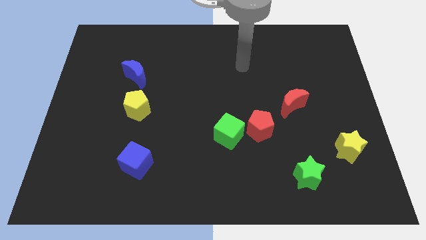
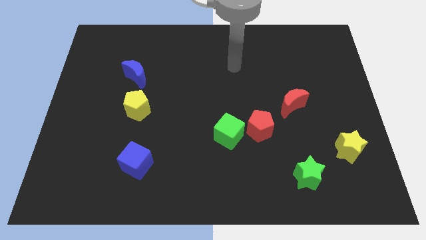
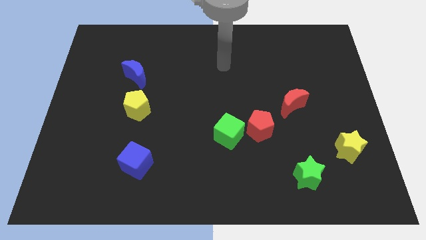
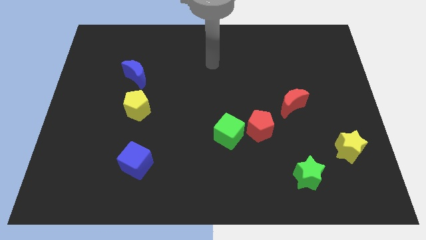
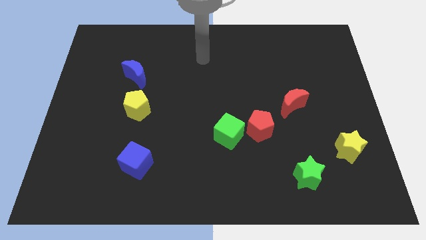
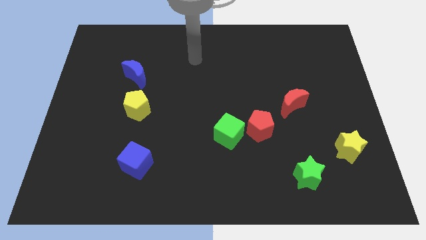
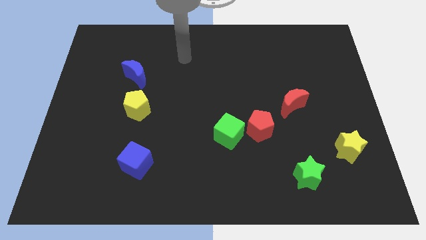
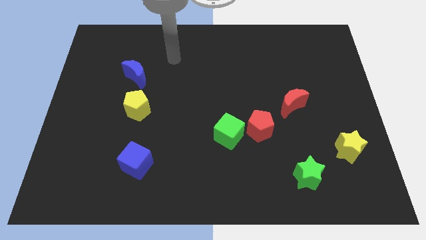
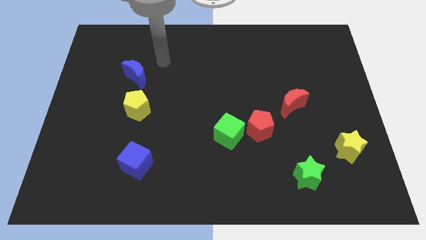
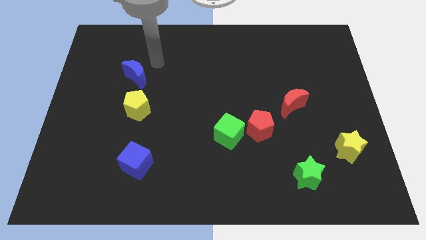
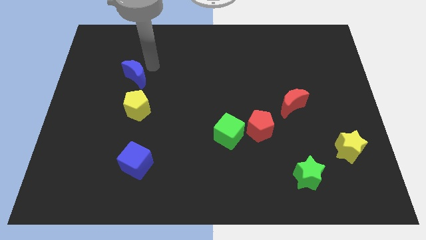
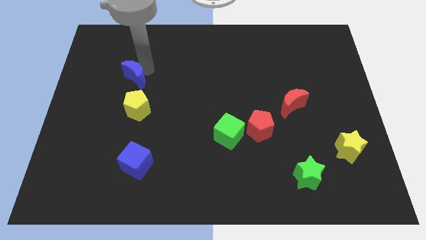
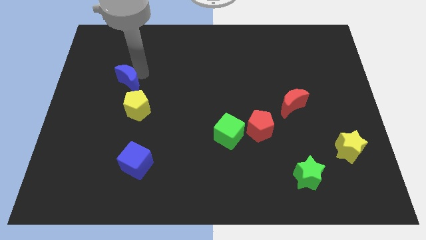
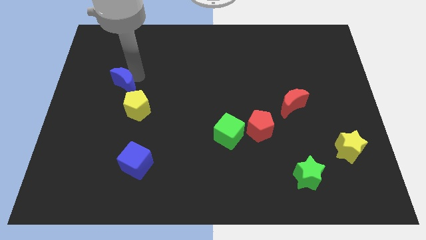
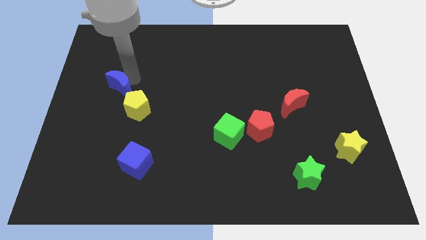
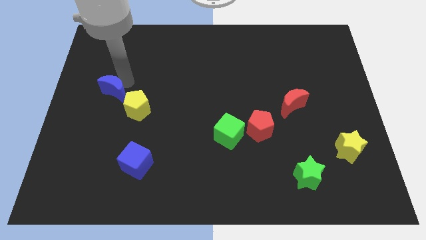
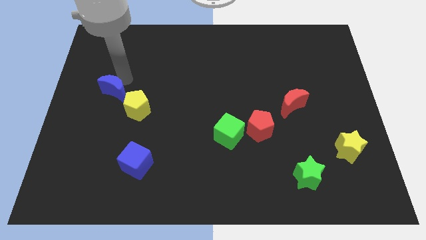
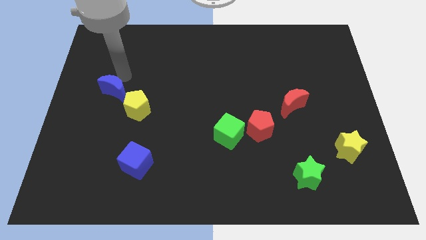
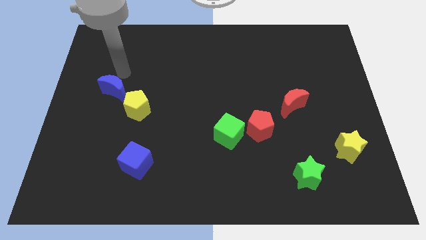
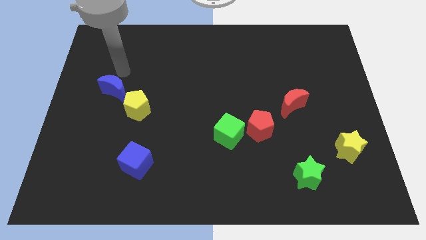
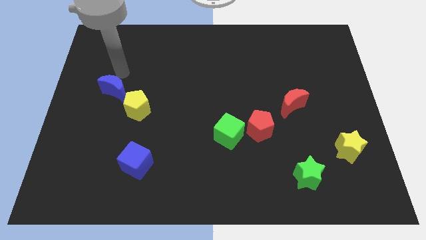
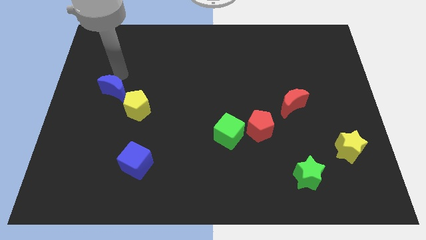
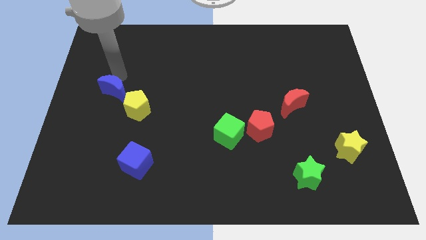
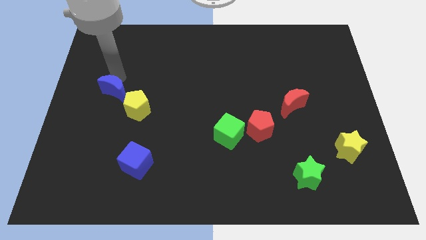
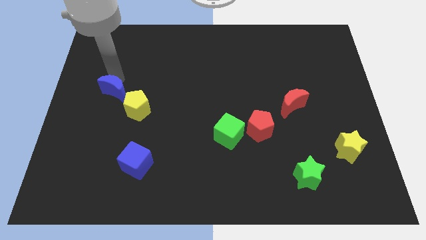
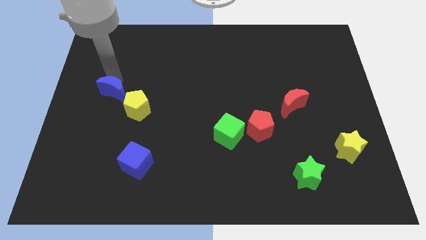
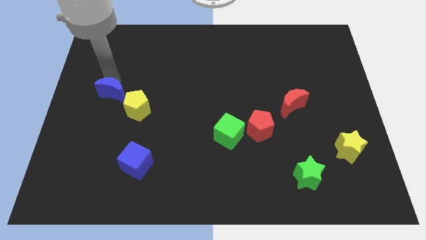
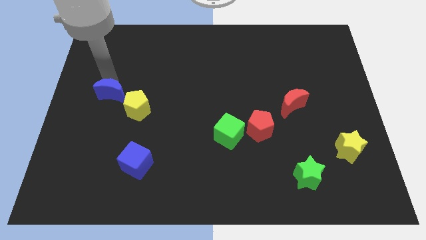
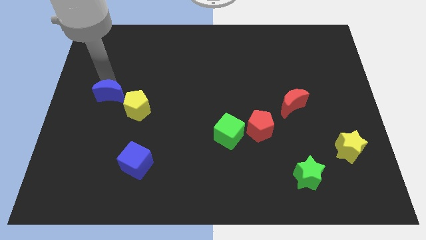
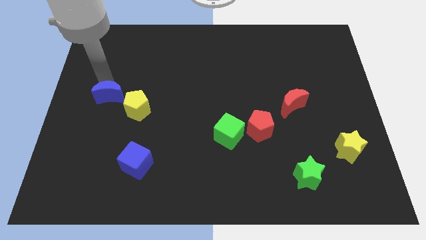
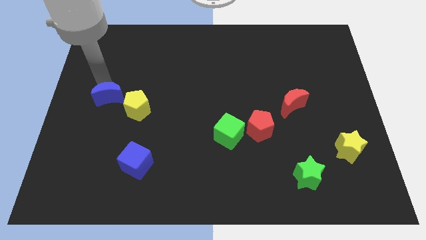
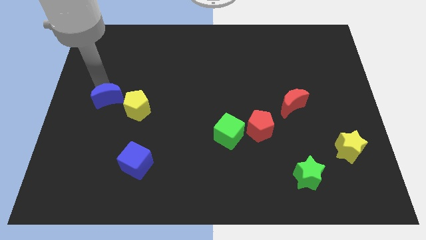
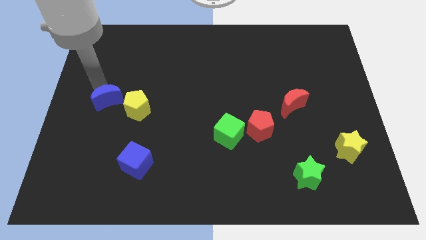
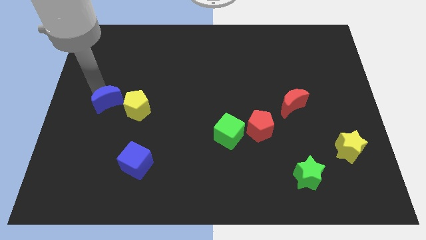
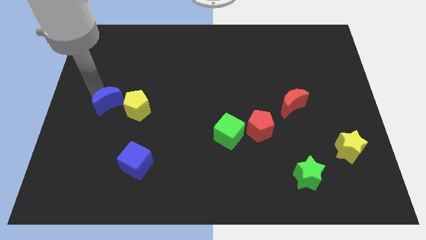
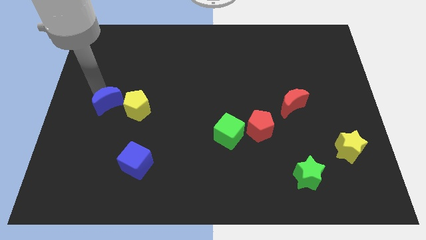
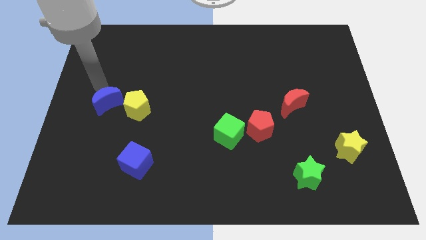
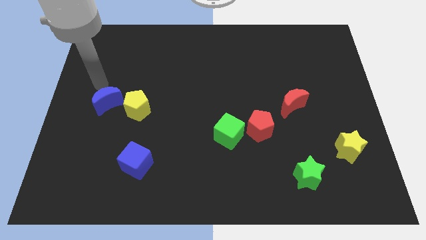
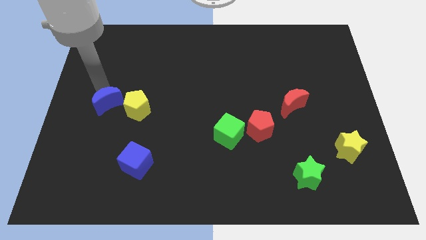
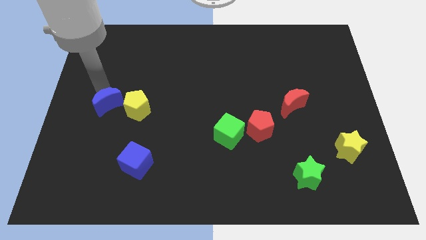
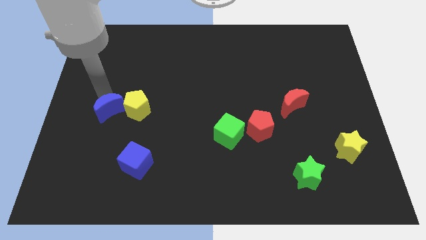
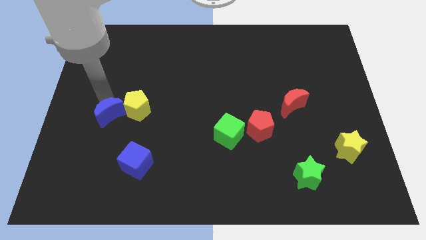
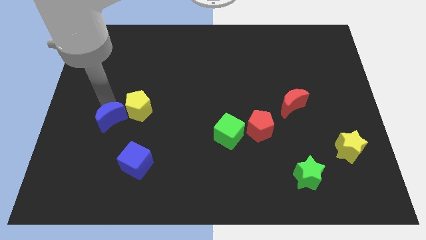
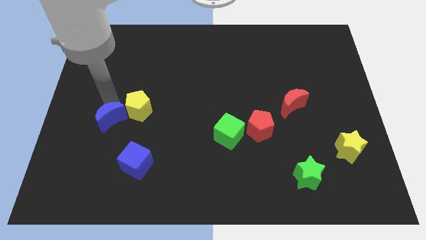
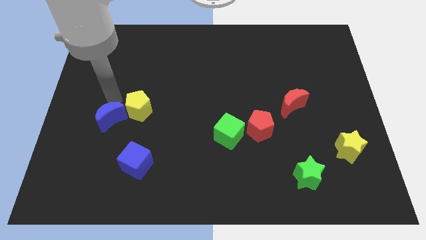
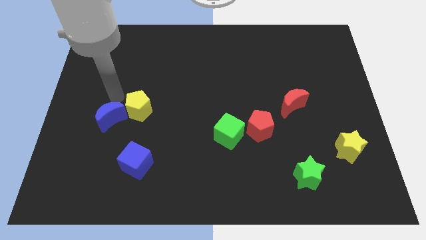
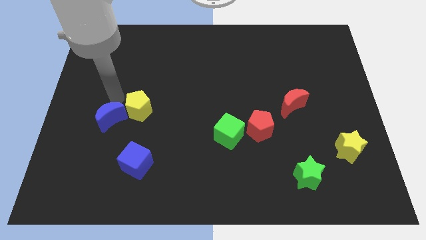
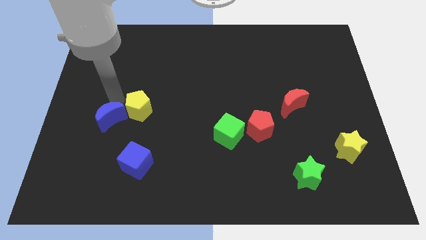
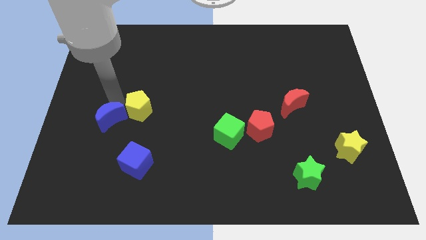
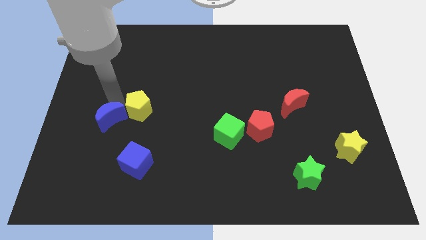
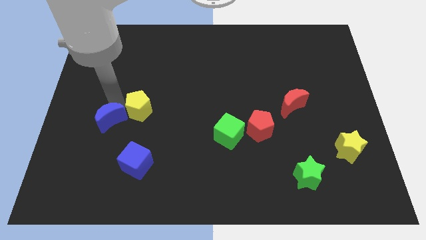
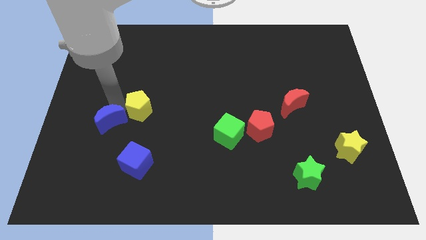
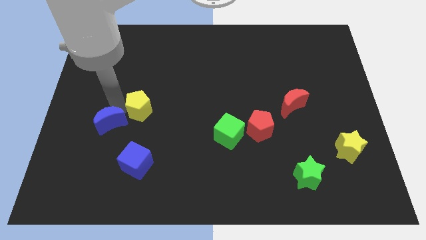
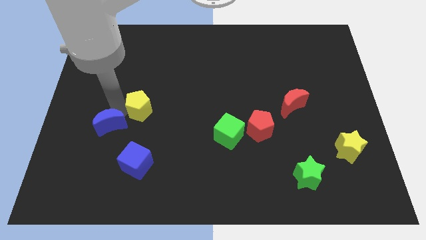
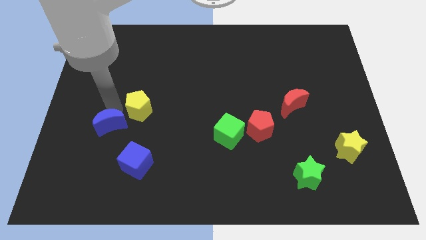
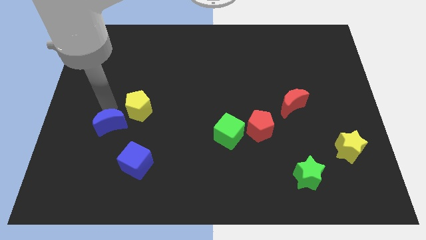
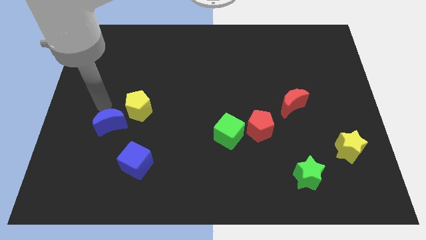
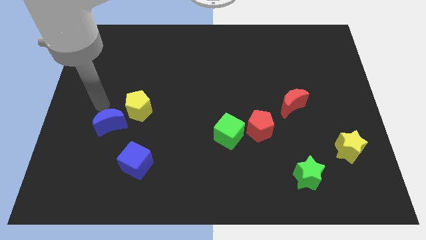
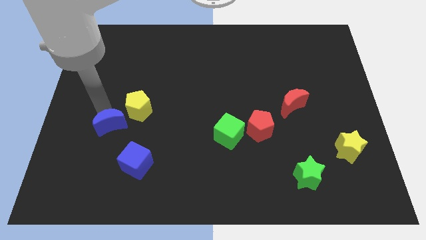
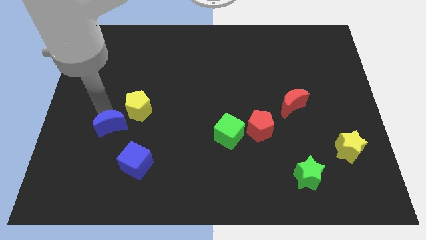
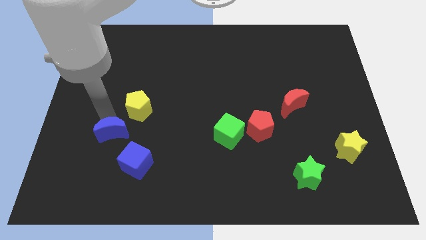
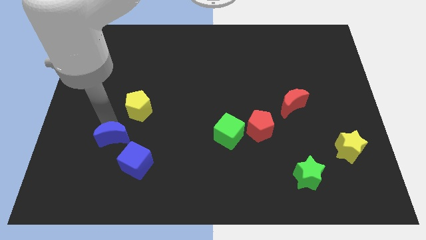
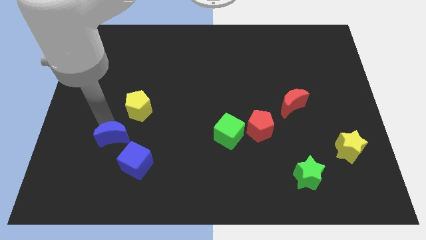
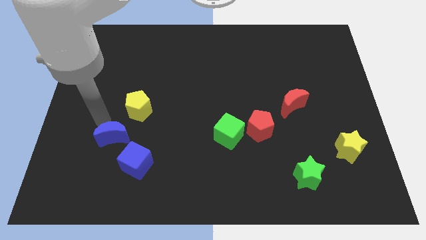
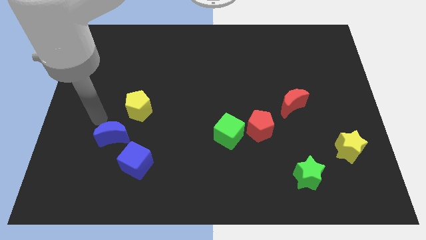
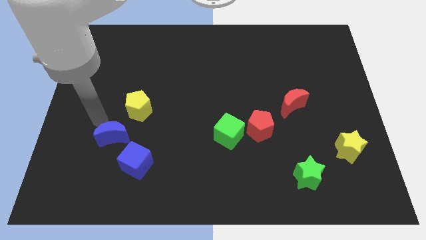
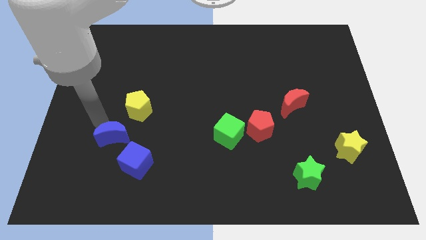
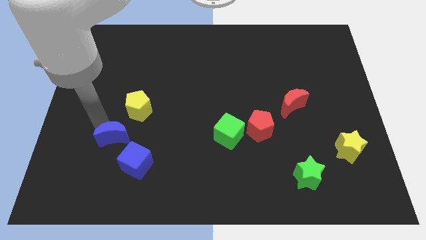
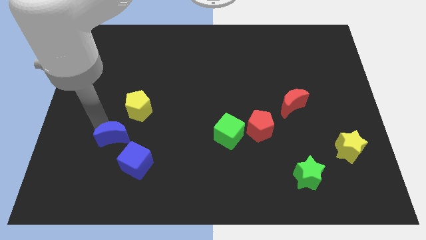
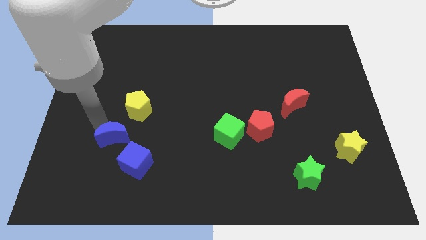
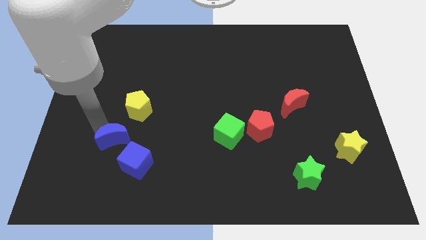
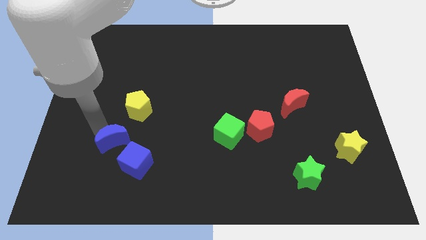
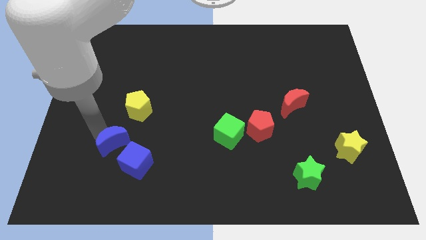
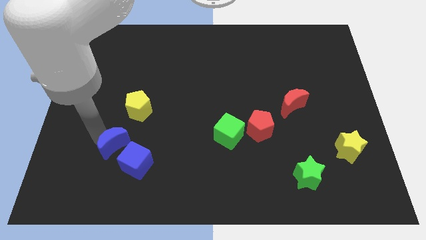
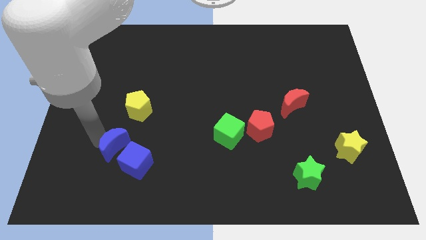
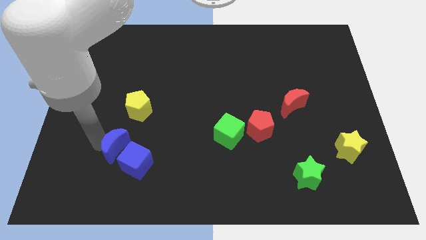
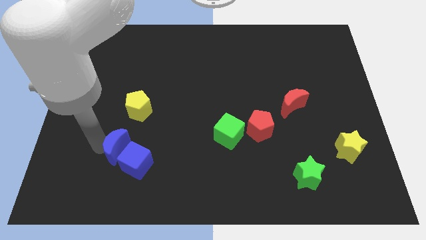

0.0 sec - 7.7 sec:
slide the blue moon next to the blue cube
